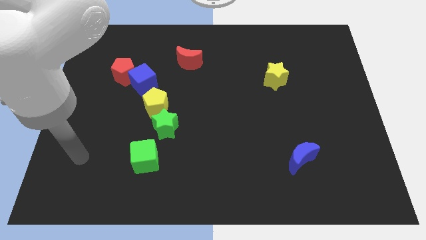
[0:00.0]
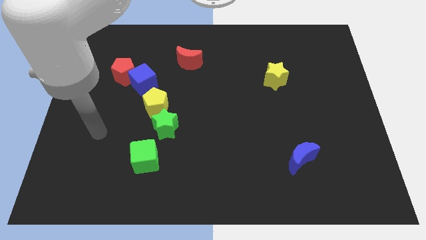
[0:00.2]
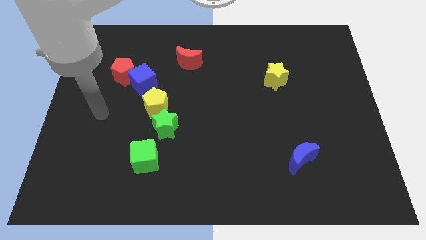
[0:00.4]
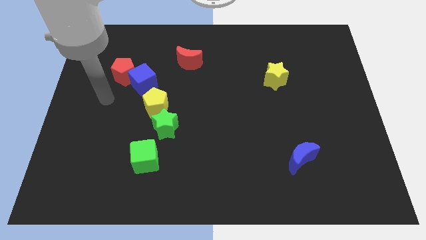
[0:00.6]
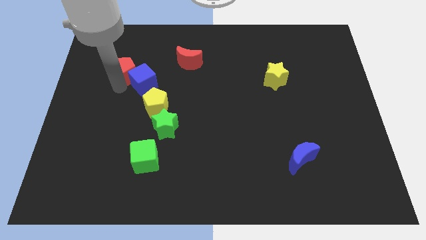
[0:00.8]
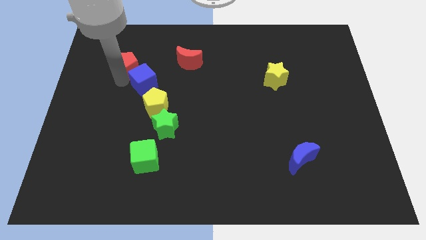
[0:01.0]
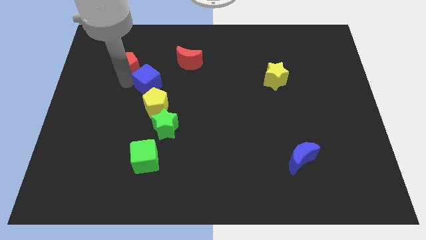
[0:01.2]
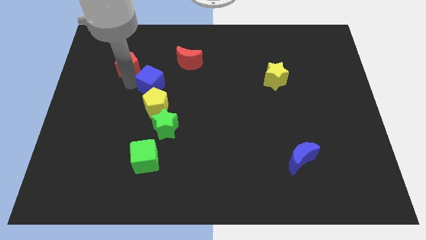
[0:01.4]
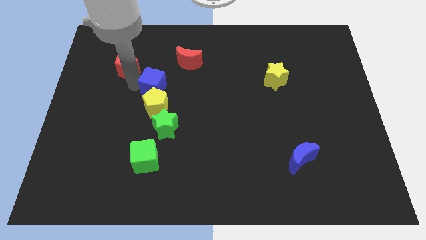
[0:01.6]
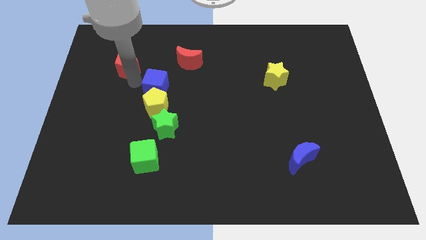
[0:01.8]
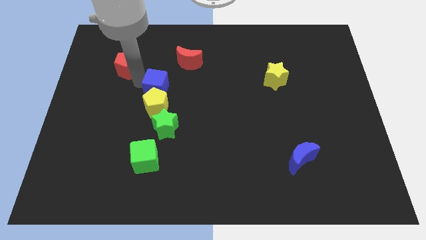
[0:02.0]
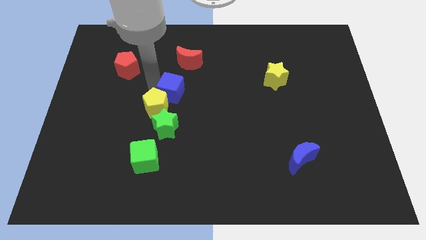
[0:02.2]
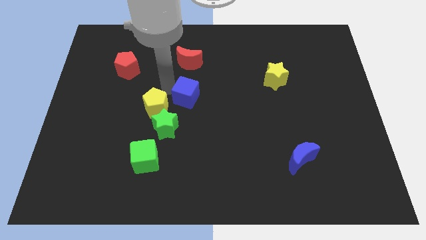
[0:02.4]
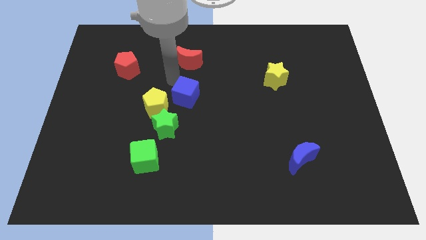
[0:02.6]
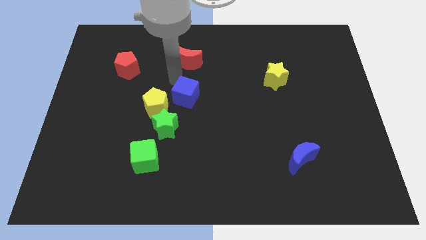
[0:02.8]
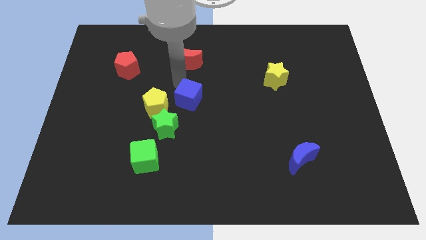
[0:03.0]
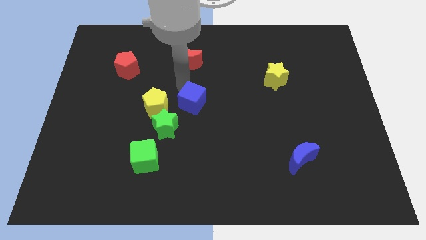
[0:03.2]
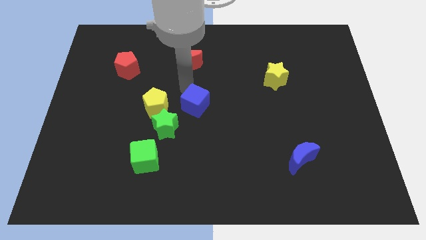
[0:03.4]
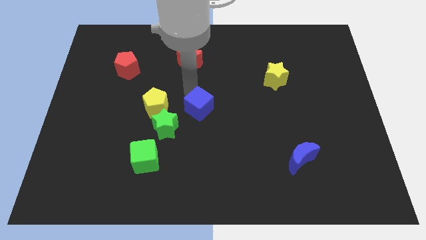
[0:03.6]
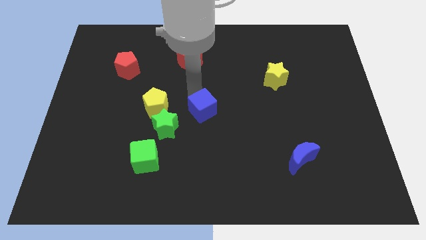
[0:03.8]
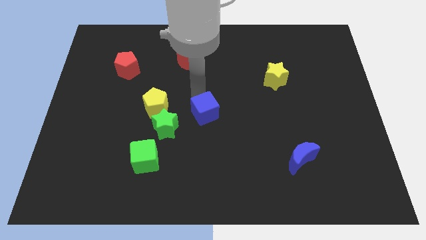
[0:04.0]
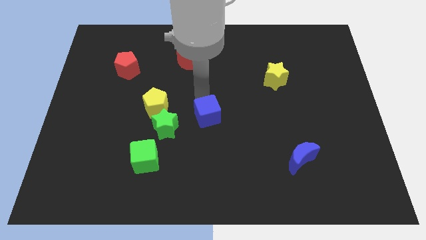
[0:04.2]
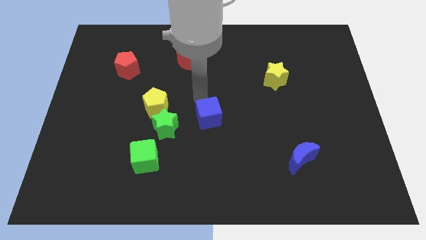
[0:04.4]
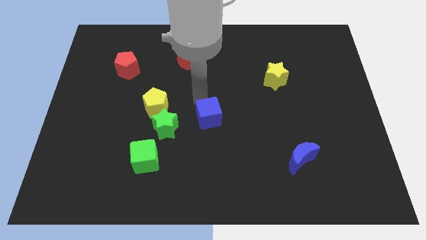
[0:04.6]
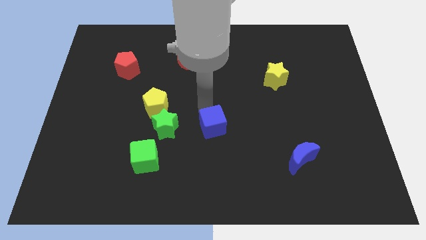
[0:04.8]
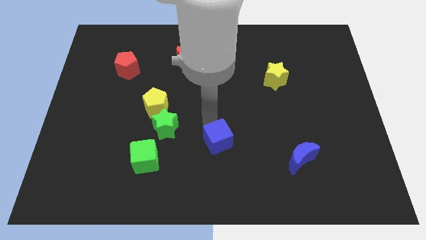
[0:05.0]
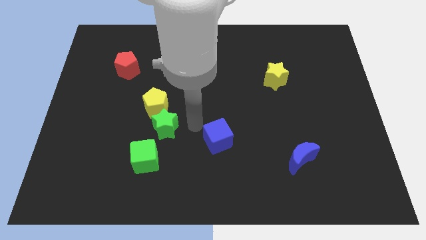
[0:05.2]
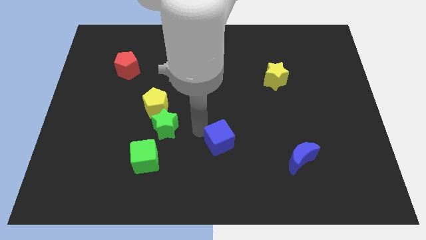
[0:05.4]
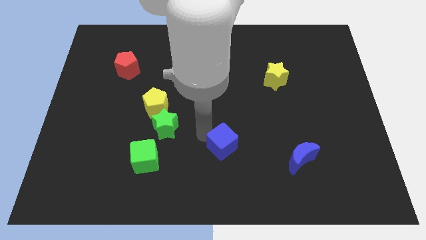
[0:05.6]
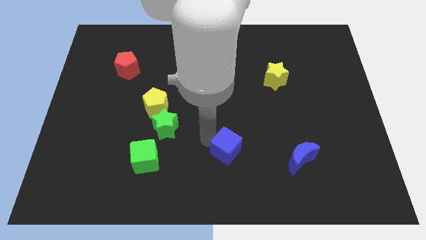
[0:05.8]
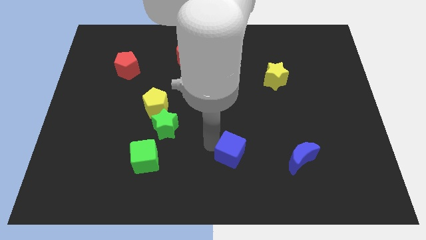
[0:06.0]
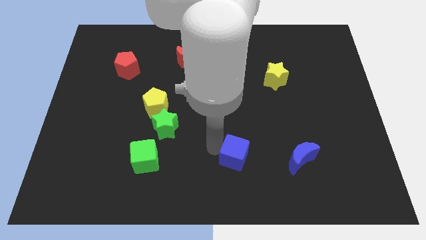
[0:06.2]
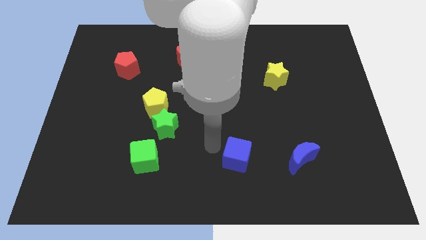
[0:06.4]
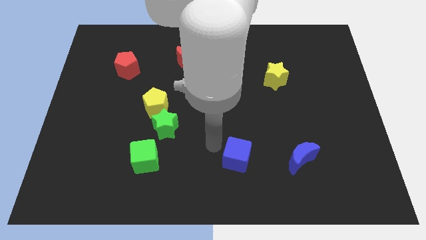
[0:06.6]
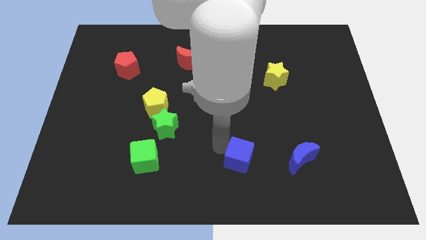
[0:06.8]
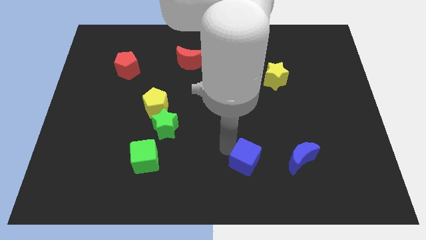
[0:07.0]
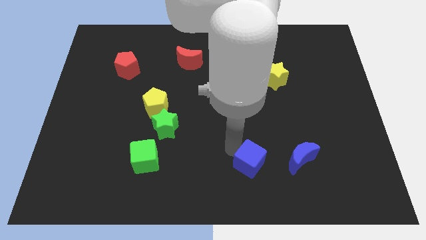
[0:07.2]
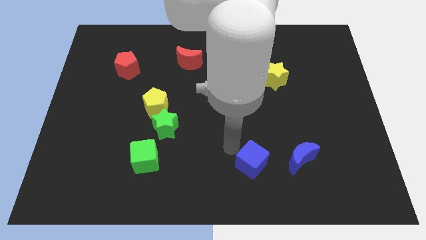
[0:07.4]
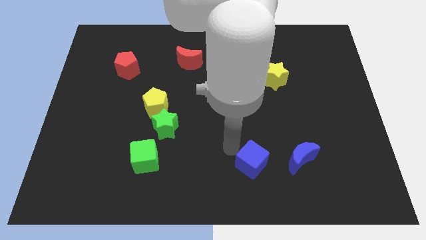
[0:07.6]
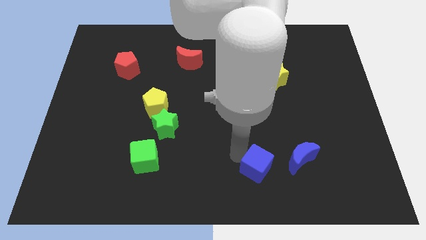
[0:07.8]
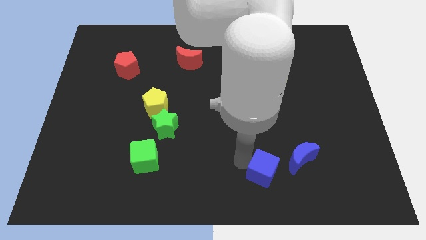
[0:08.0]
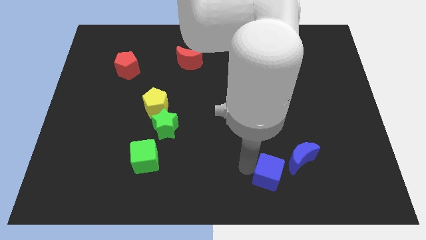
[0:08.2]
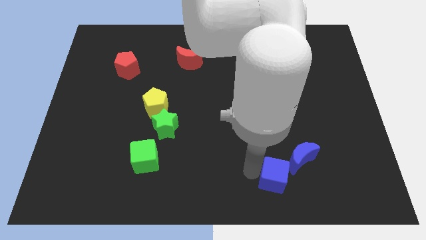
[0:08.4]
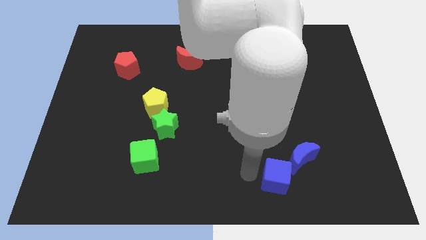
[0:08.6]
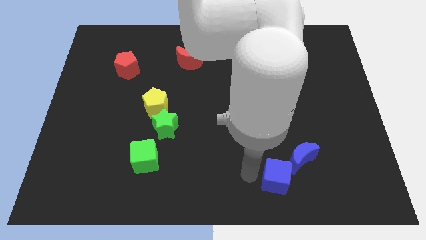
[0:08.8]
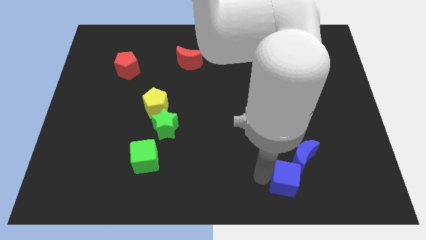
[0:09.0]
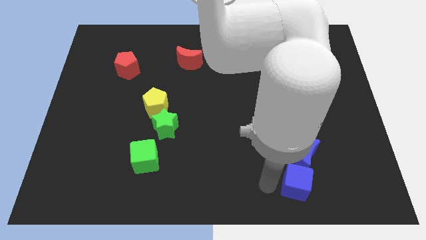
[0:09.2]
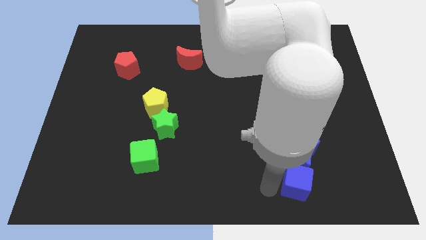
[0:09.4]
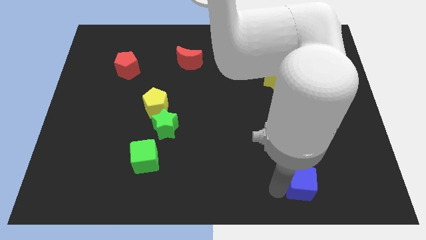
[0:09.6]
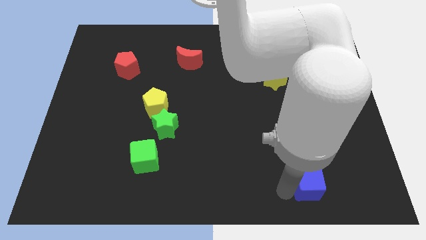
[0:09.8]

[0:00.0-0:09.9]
put the blue cube diagonally down and to the right of the blue moon

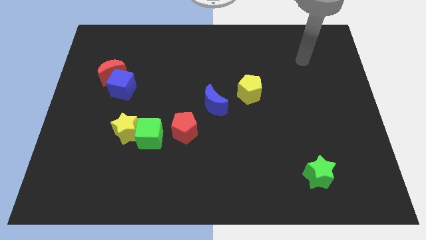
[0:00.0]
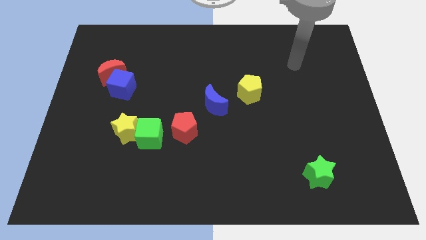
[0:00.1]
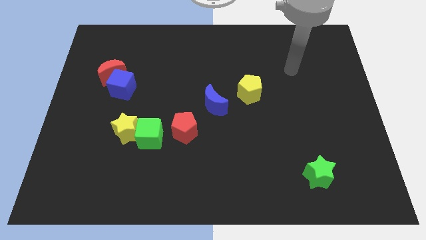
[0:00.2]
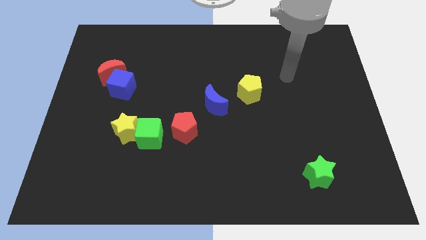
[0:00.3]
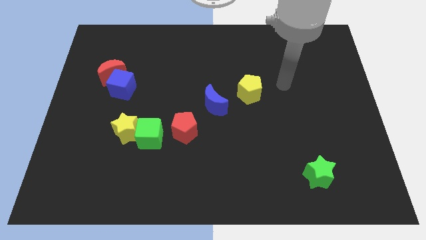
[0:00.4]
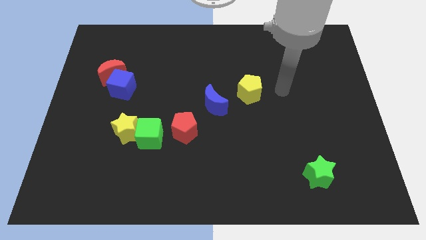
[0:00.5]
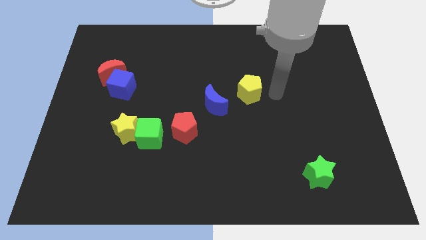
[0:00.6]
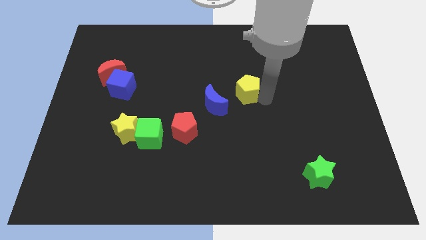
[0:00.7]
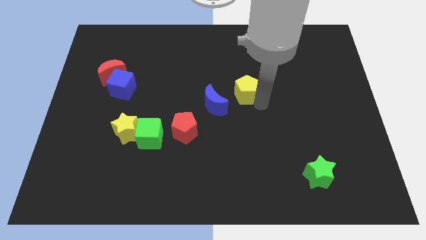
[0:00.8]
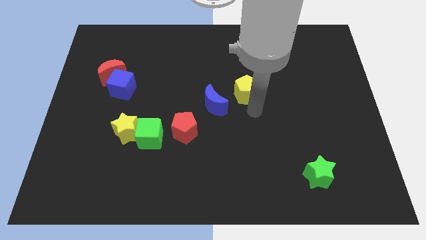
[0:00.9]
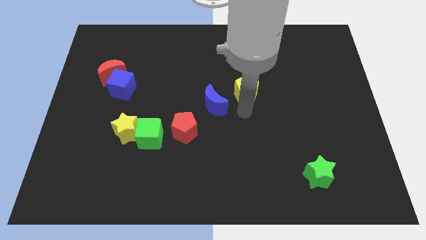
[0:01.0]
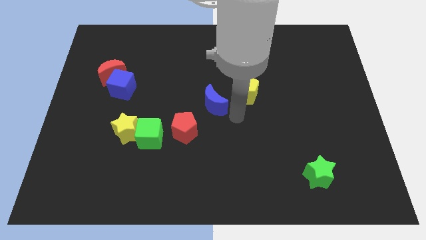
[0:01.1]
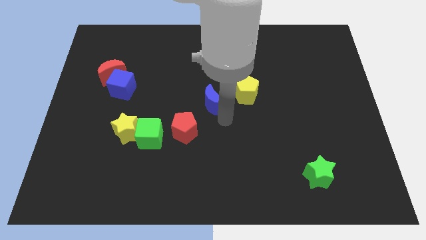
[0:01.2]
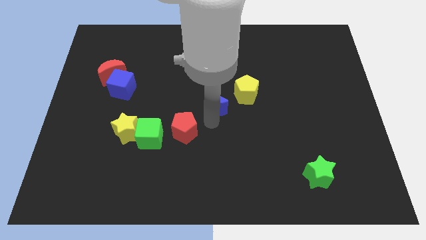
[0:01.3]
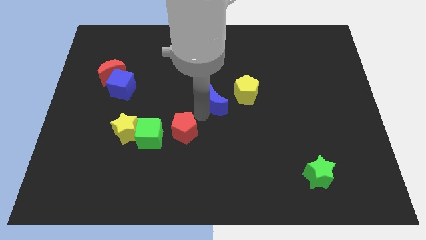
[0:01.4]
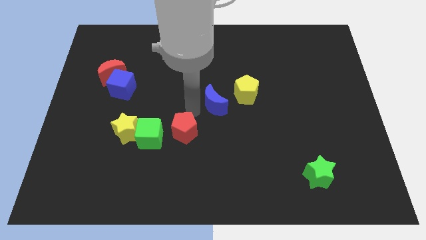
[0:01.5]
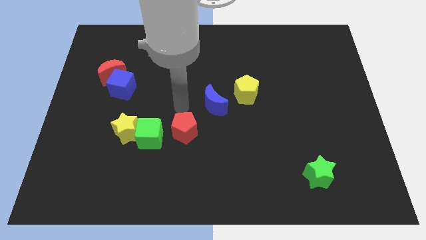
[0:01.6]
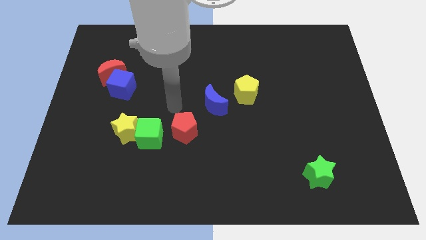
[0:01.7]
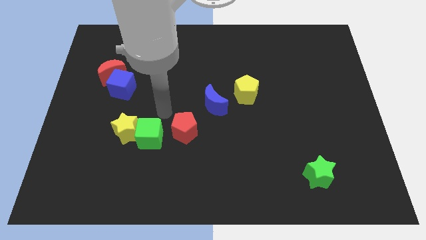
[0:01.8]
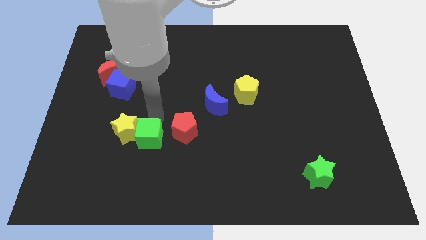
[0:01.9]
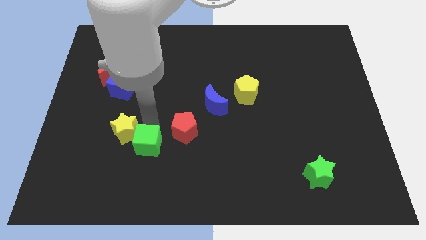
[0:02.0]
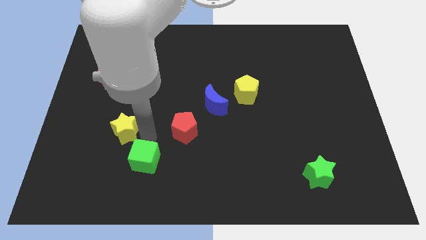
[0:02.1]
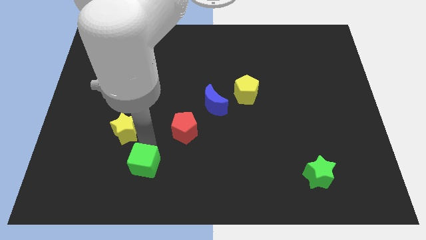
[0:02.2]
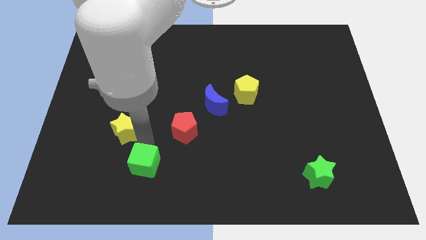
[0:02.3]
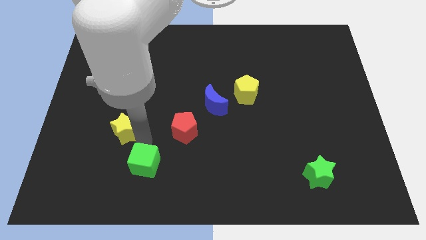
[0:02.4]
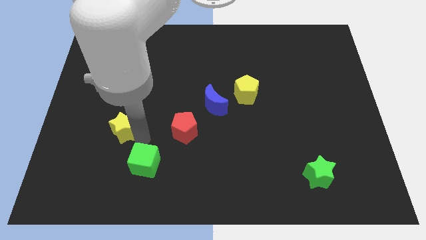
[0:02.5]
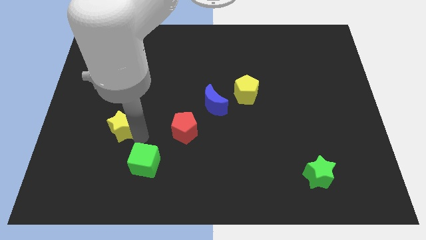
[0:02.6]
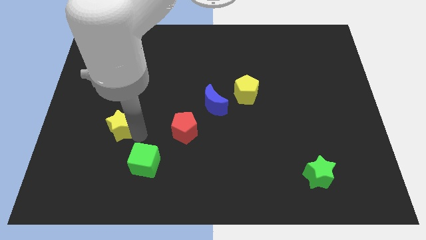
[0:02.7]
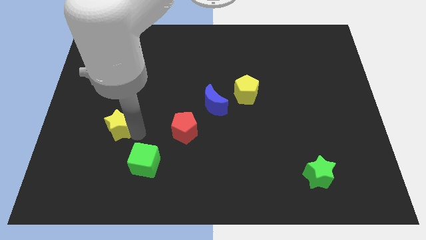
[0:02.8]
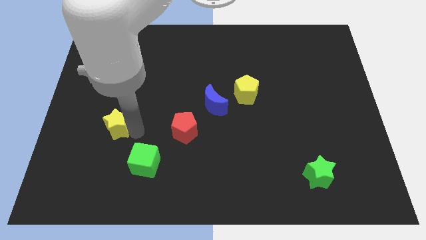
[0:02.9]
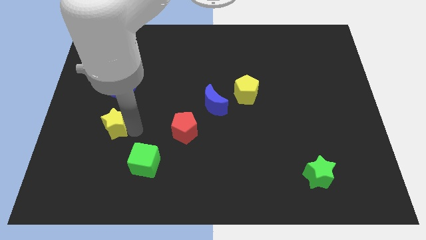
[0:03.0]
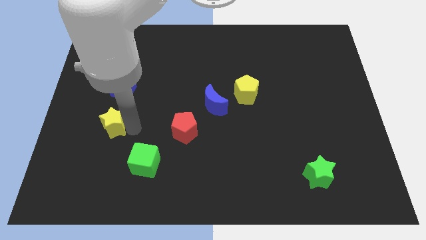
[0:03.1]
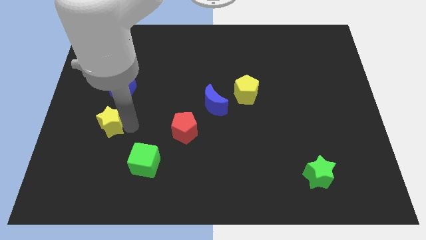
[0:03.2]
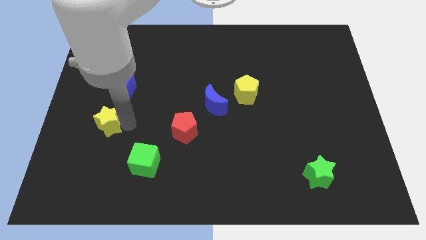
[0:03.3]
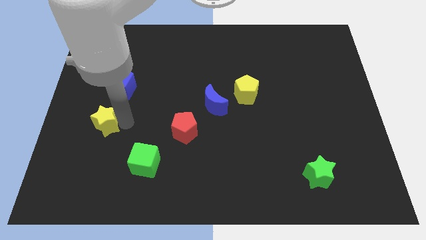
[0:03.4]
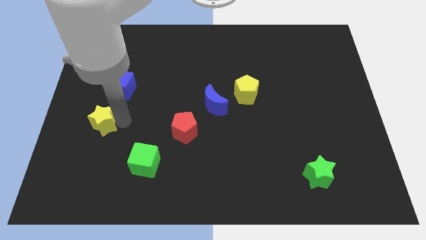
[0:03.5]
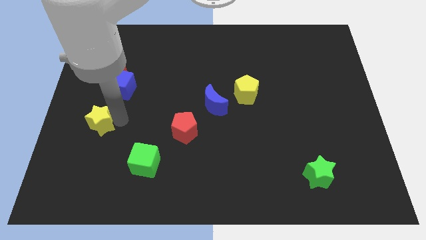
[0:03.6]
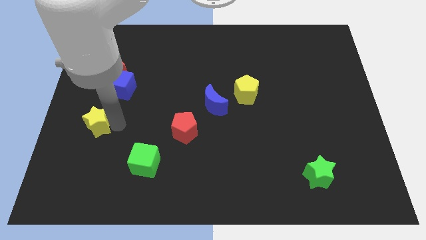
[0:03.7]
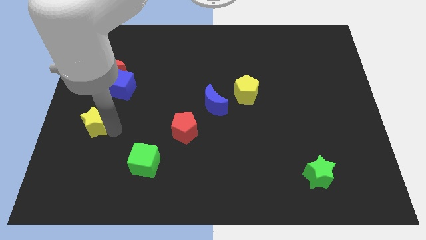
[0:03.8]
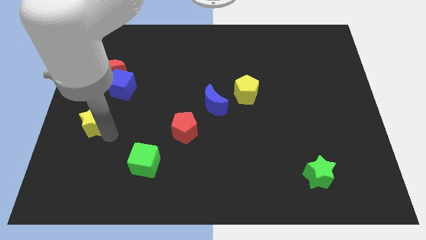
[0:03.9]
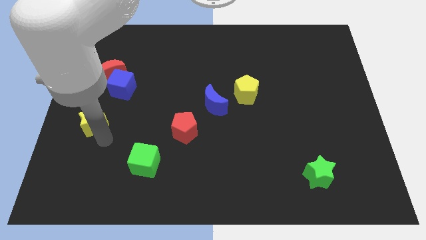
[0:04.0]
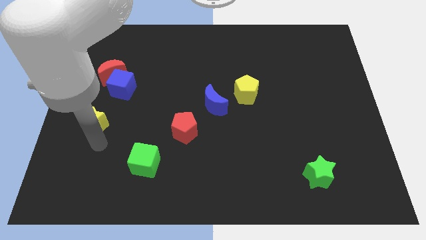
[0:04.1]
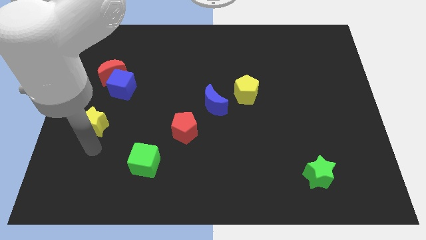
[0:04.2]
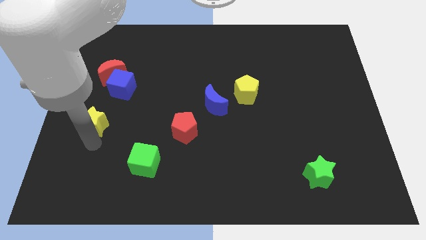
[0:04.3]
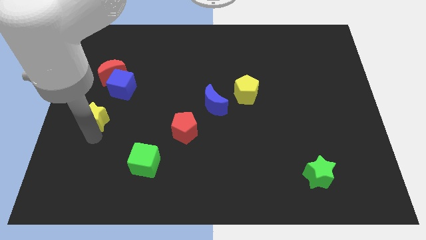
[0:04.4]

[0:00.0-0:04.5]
slide the yellow star to the bottom left of the blue cube
